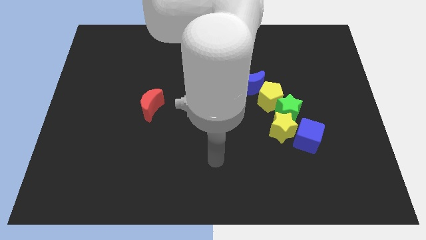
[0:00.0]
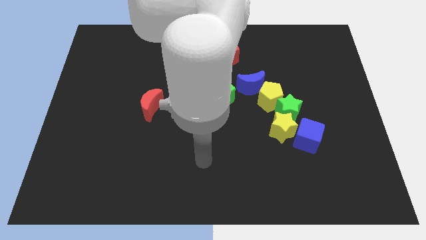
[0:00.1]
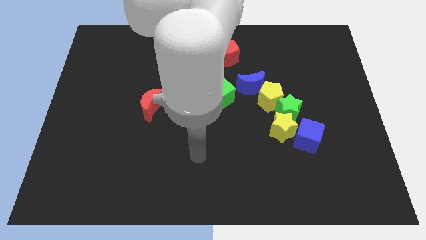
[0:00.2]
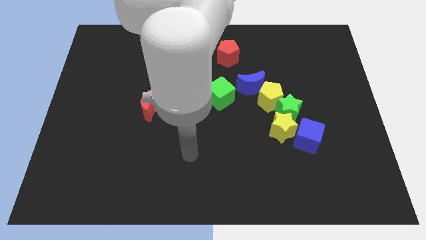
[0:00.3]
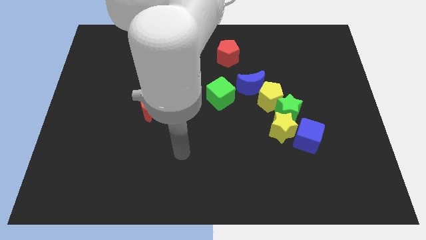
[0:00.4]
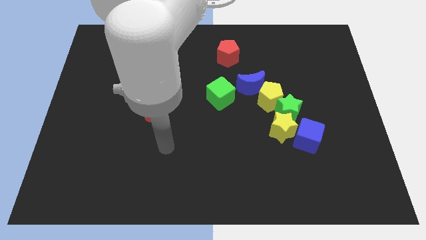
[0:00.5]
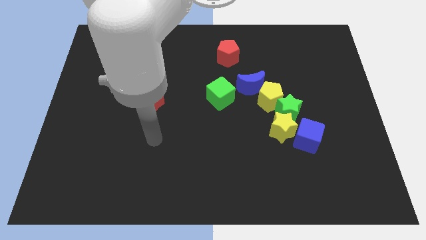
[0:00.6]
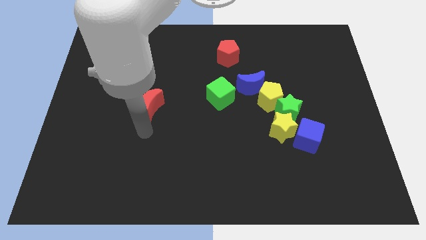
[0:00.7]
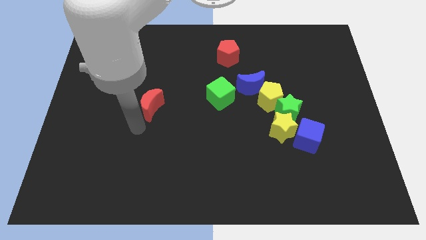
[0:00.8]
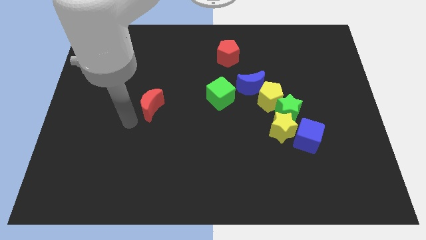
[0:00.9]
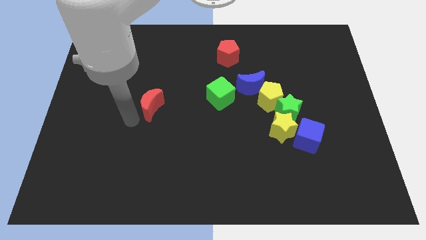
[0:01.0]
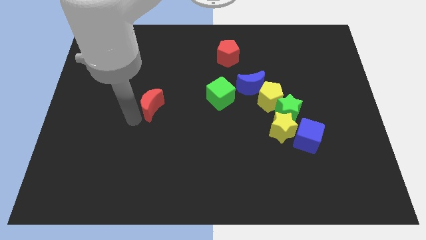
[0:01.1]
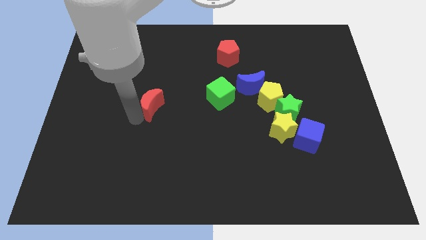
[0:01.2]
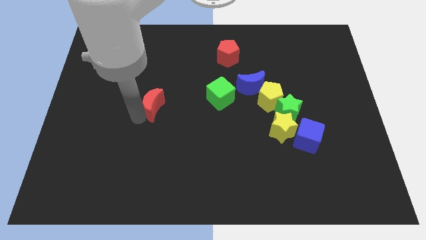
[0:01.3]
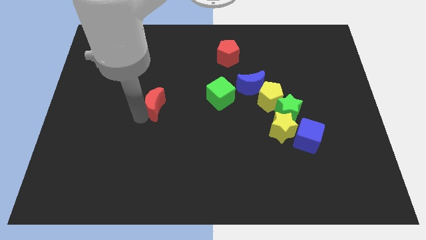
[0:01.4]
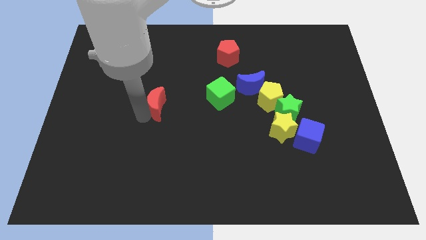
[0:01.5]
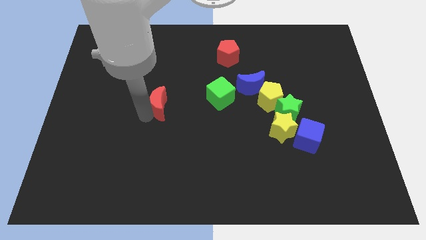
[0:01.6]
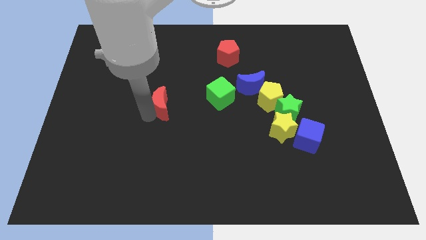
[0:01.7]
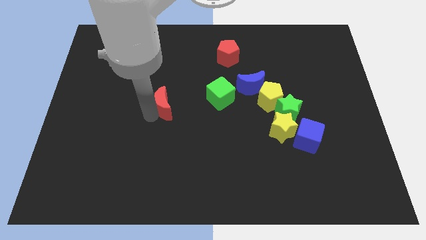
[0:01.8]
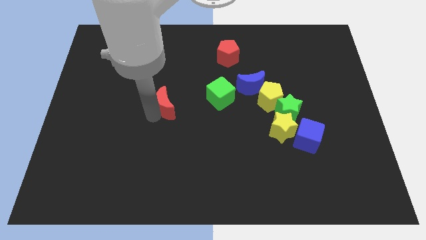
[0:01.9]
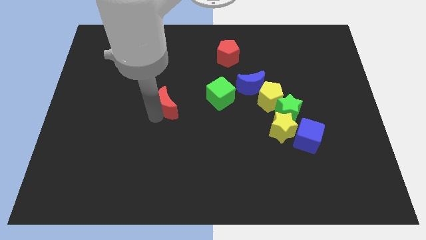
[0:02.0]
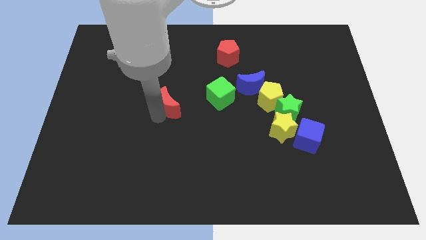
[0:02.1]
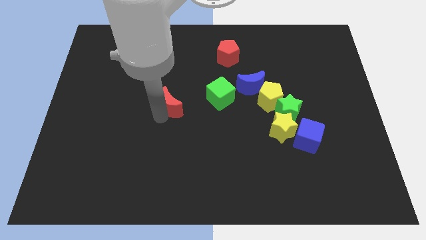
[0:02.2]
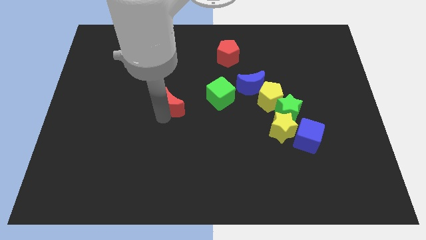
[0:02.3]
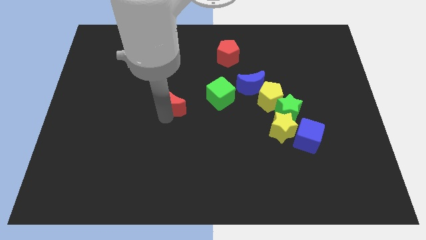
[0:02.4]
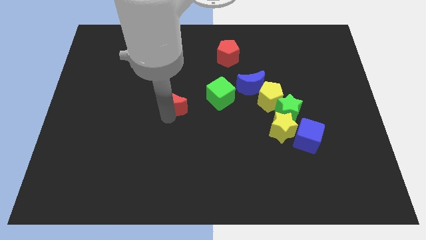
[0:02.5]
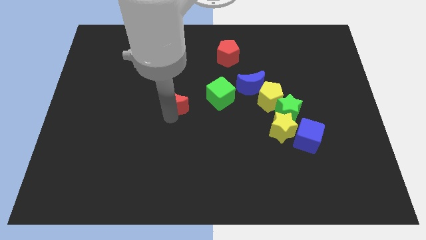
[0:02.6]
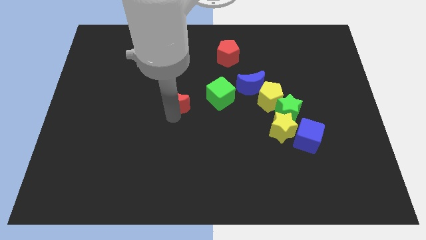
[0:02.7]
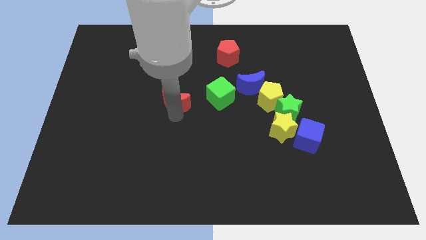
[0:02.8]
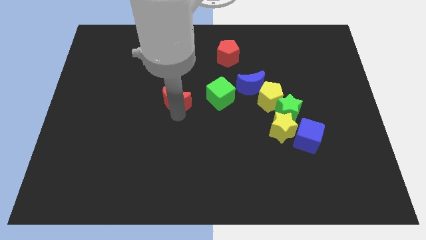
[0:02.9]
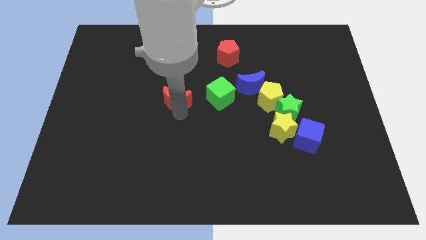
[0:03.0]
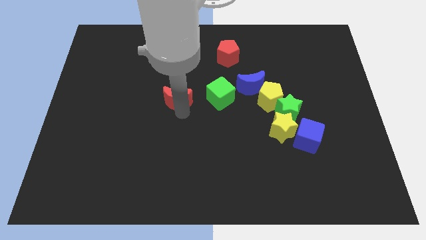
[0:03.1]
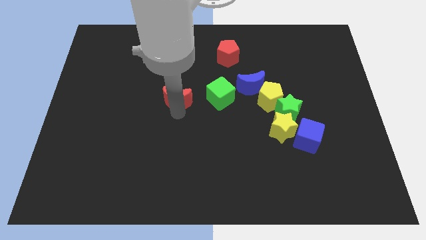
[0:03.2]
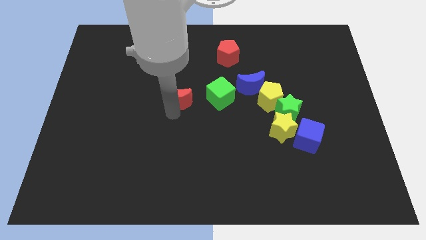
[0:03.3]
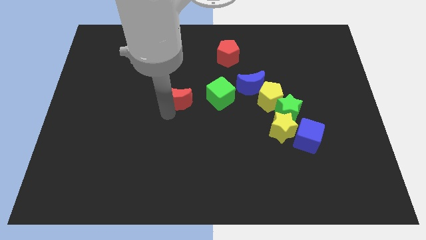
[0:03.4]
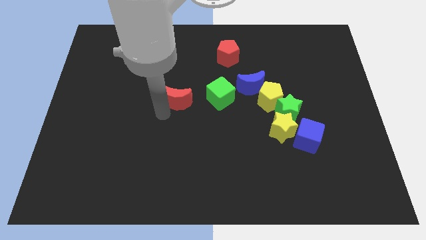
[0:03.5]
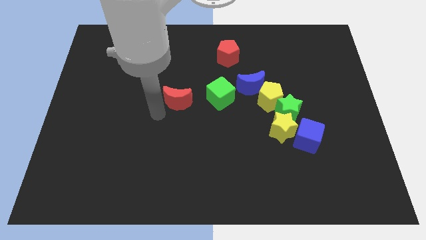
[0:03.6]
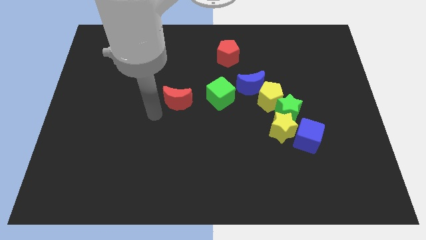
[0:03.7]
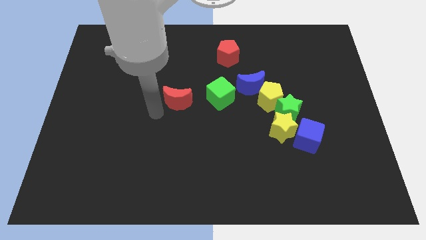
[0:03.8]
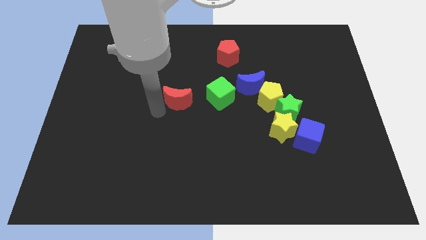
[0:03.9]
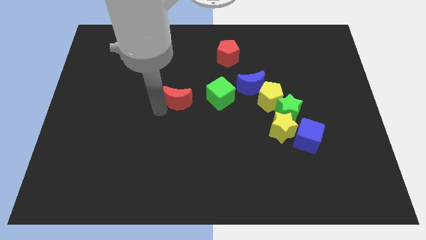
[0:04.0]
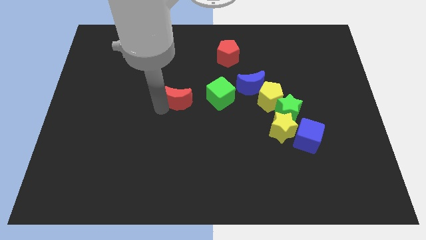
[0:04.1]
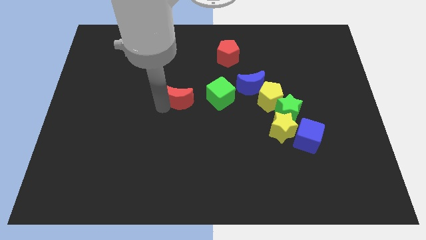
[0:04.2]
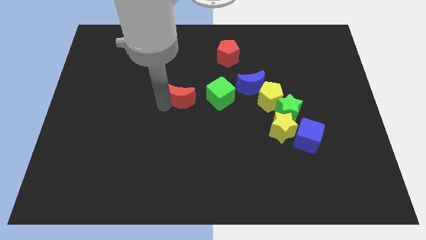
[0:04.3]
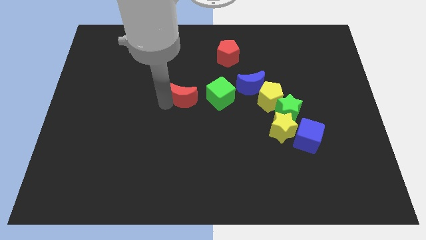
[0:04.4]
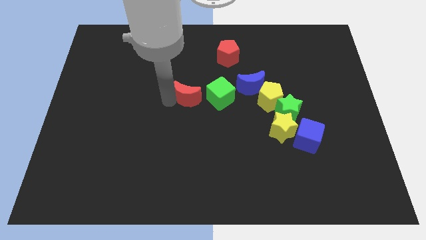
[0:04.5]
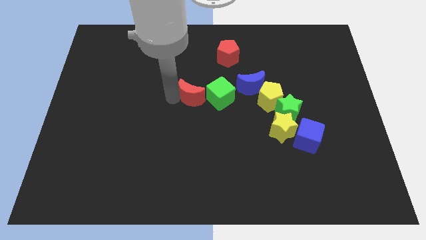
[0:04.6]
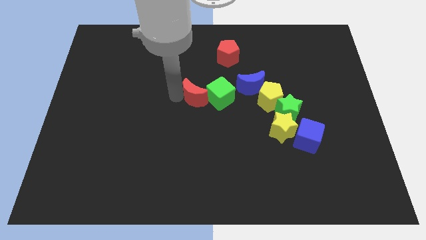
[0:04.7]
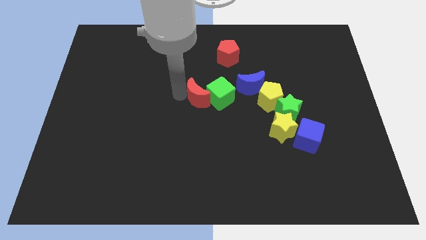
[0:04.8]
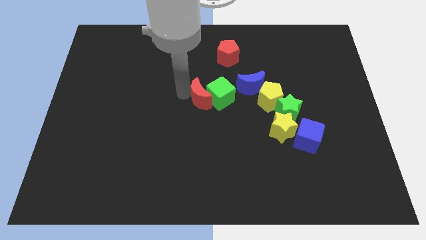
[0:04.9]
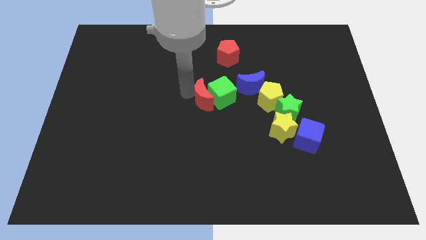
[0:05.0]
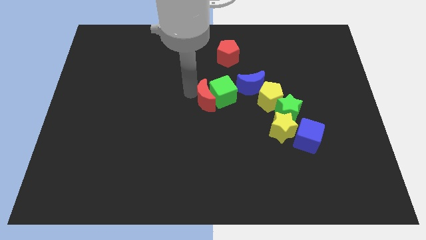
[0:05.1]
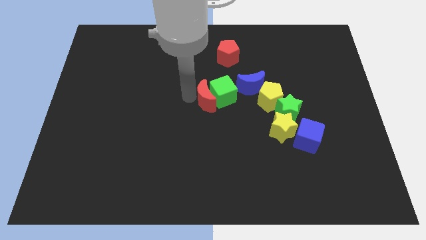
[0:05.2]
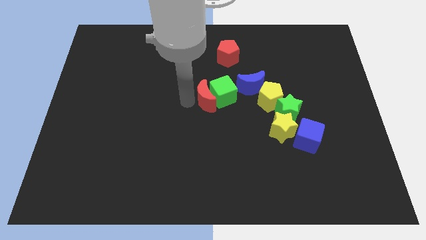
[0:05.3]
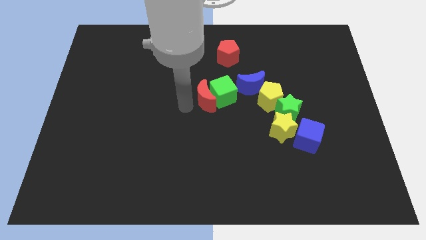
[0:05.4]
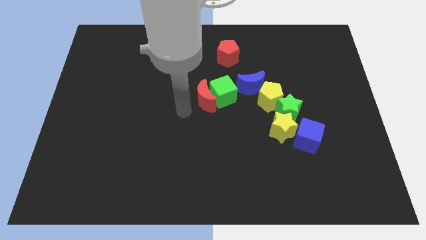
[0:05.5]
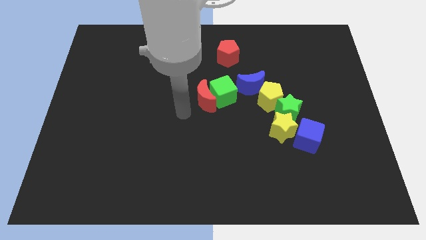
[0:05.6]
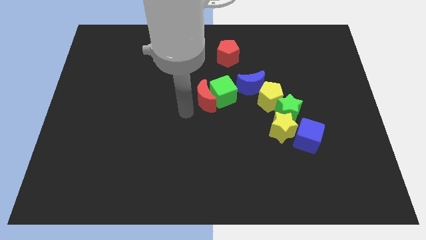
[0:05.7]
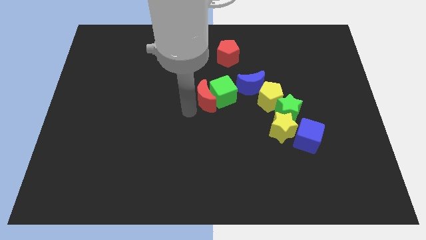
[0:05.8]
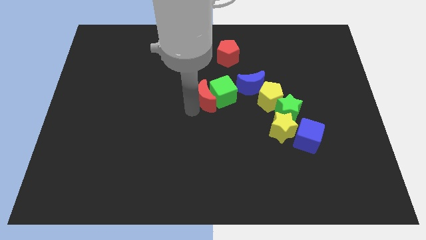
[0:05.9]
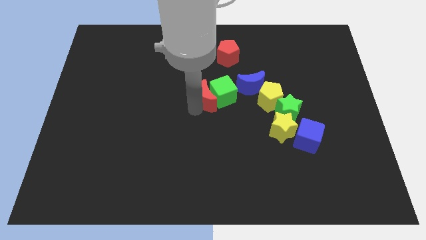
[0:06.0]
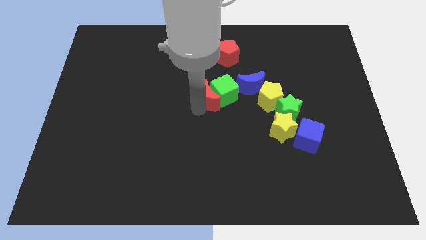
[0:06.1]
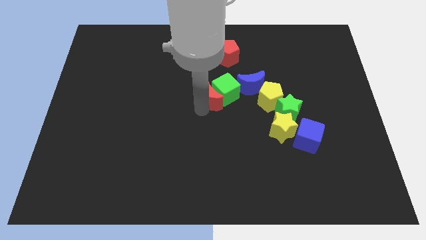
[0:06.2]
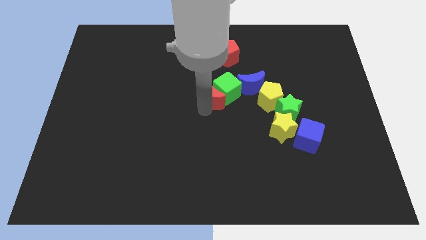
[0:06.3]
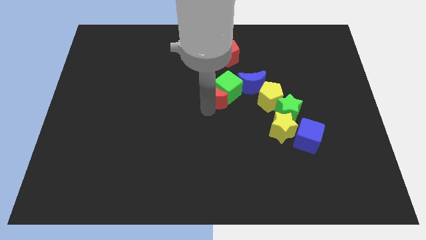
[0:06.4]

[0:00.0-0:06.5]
put the red moon to the bottom side of the red pentagon
